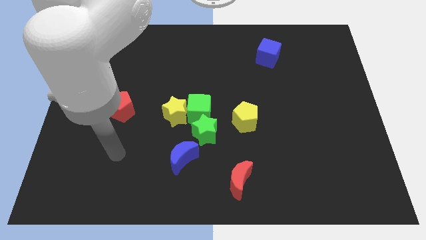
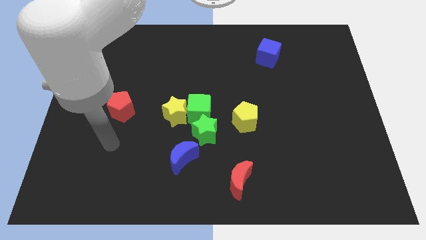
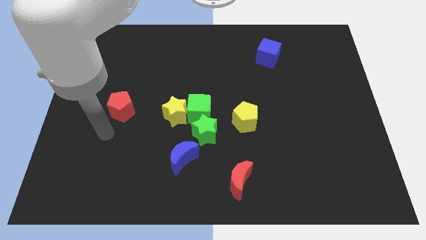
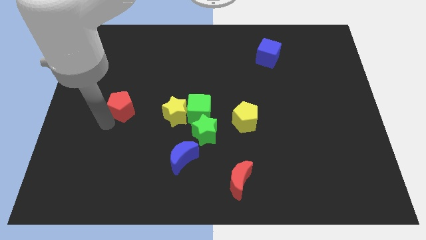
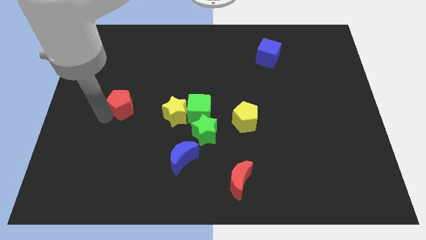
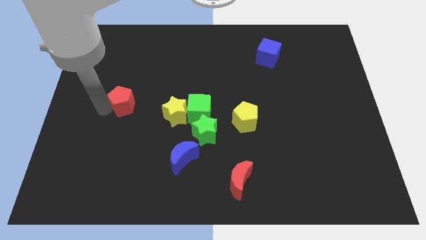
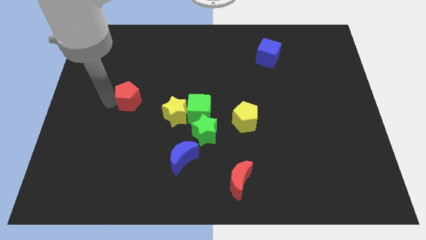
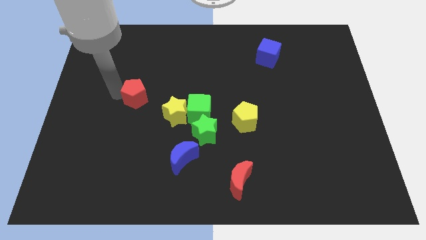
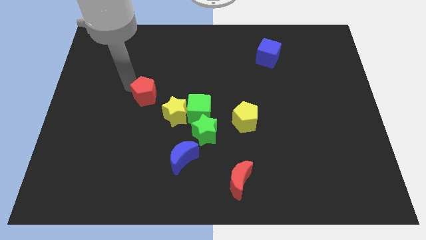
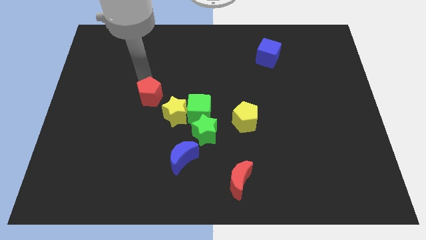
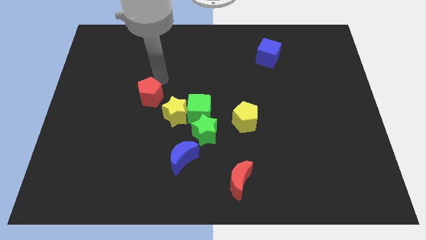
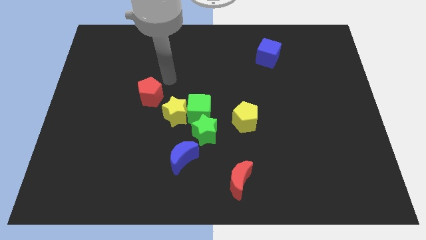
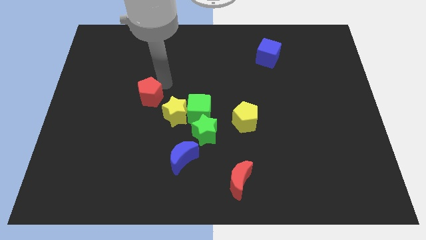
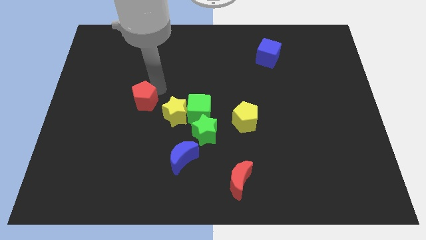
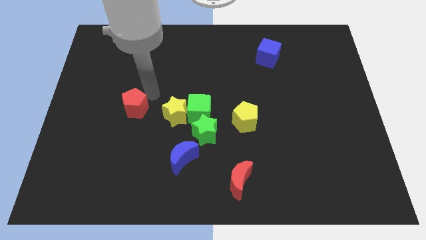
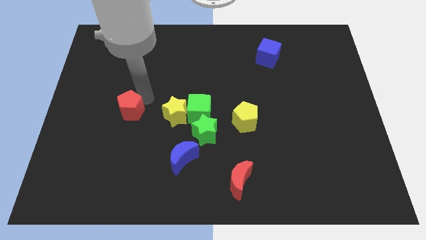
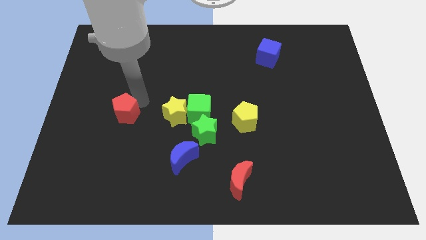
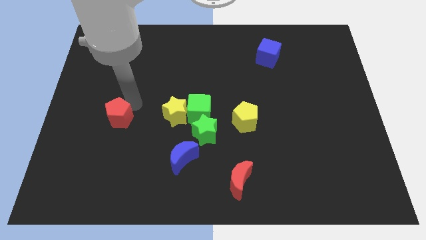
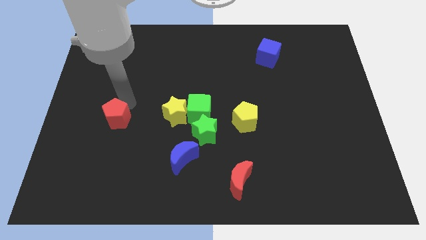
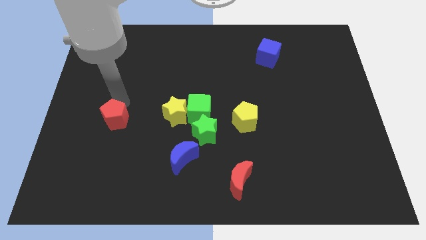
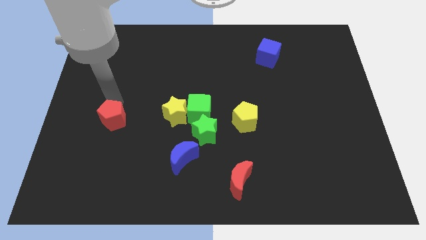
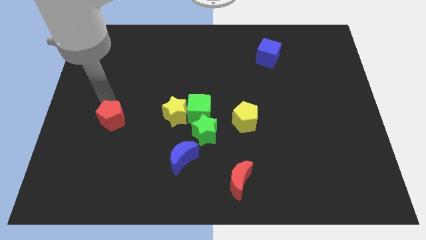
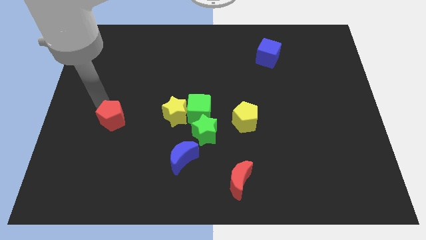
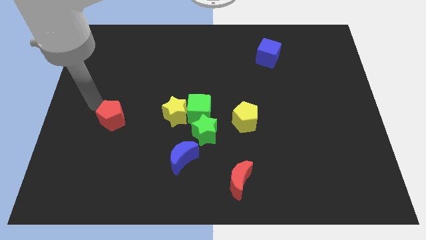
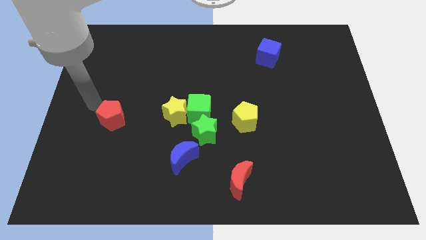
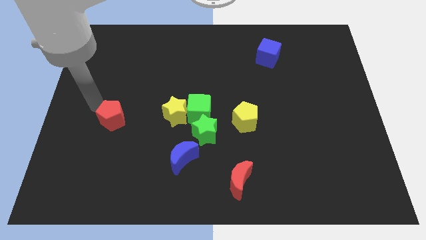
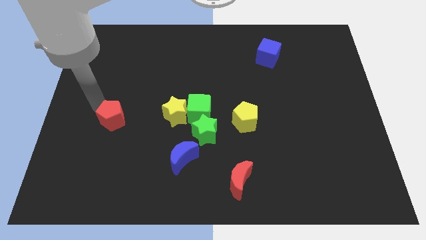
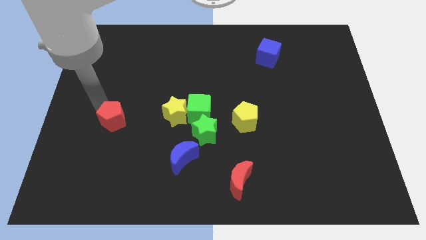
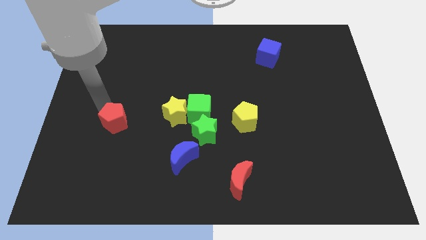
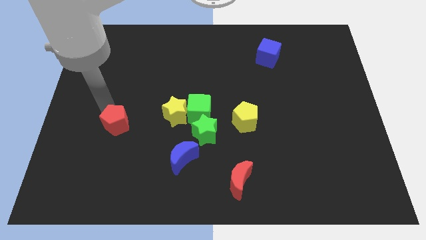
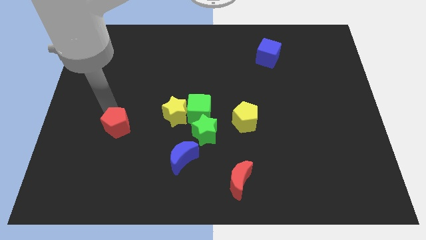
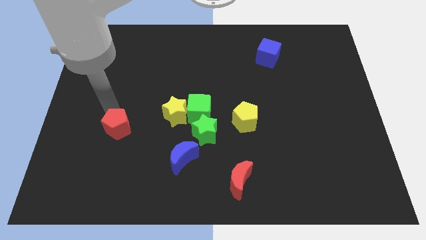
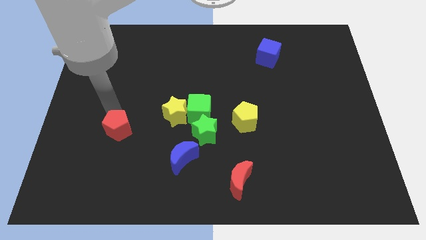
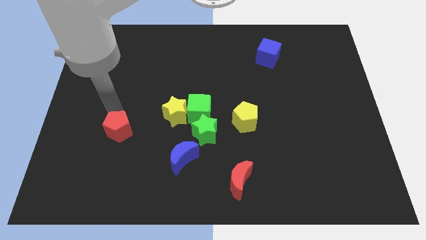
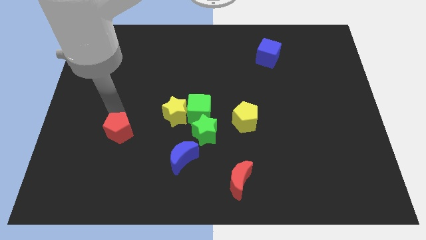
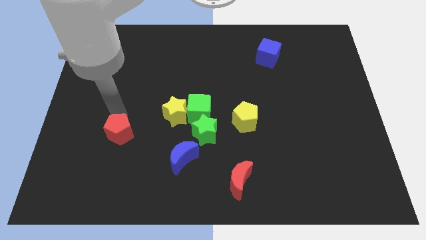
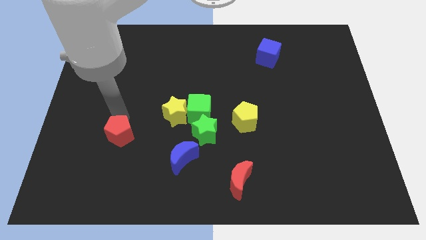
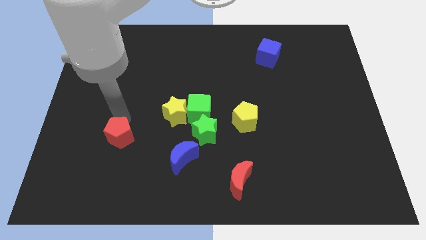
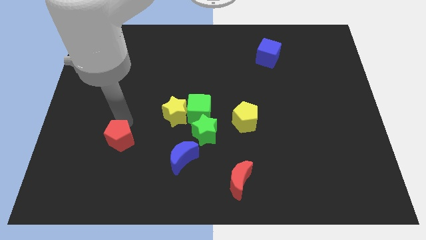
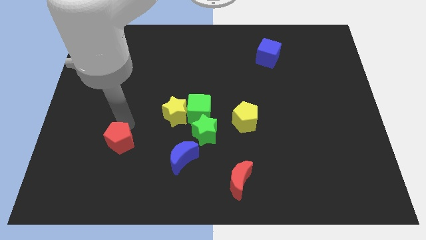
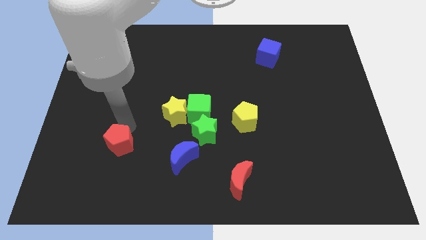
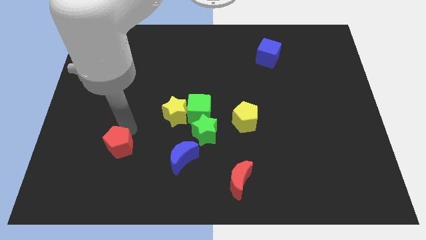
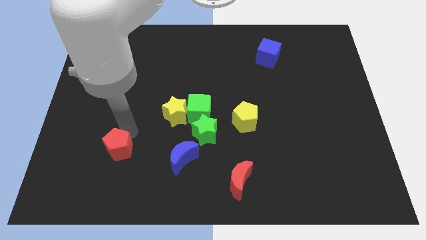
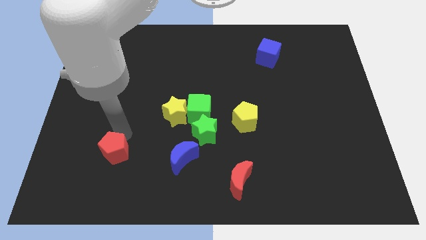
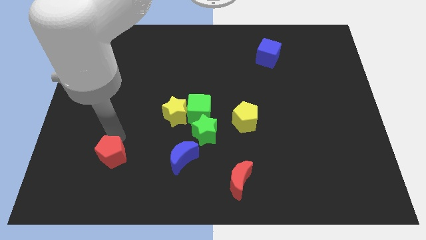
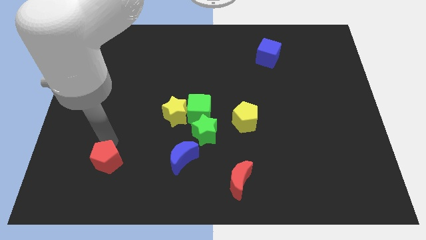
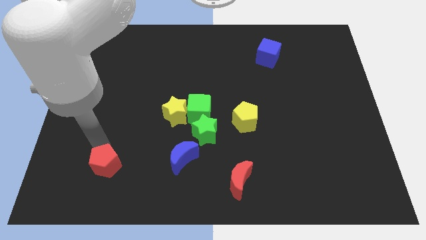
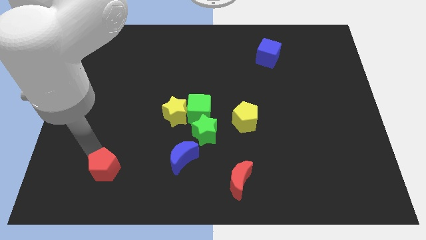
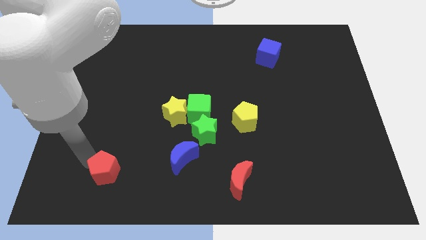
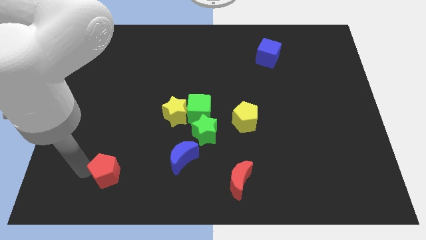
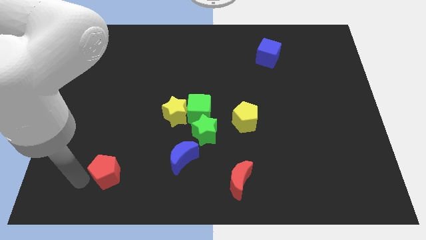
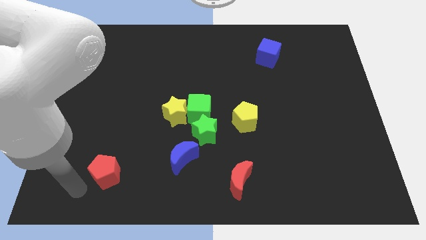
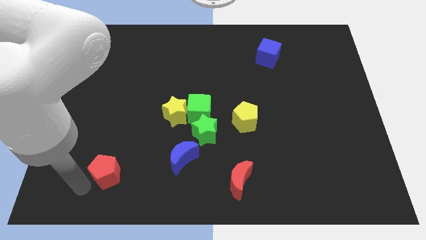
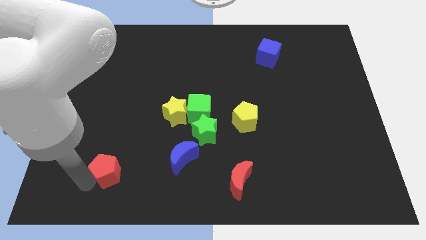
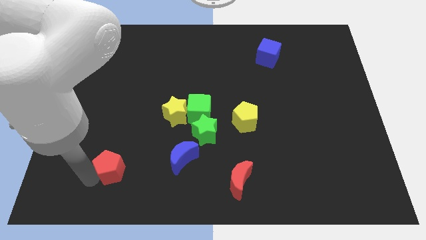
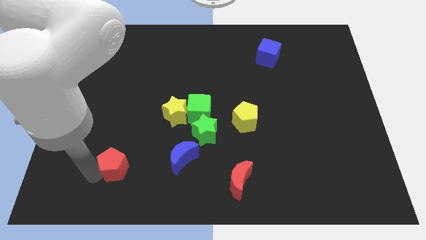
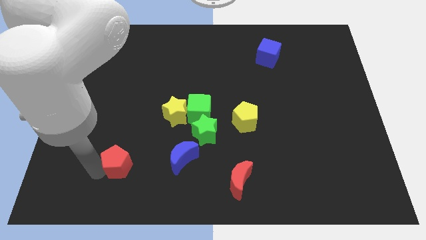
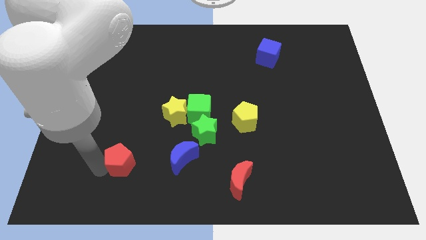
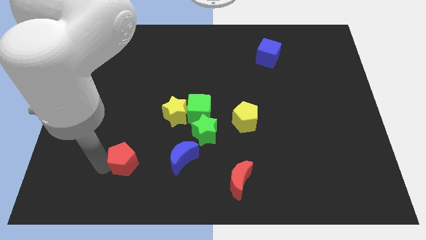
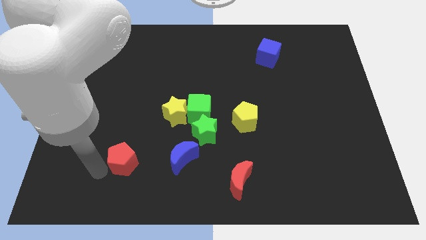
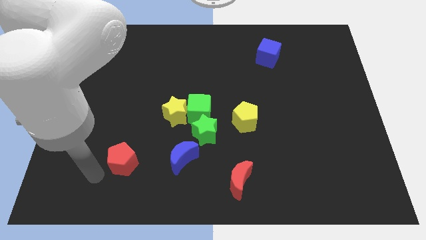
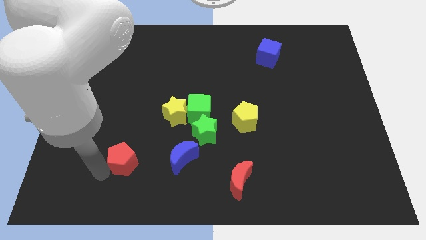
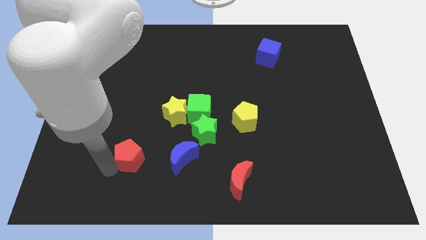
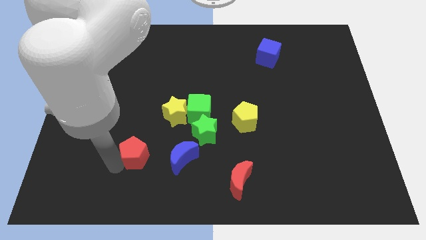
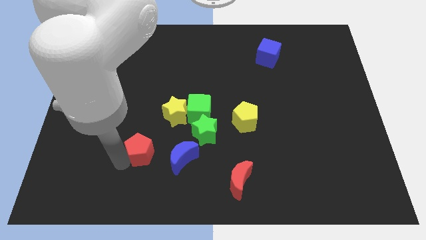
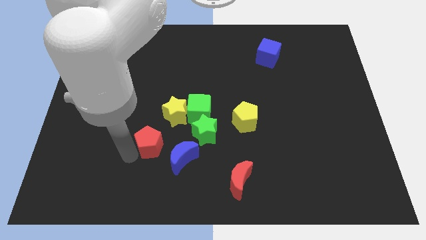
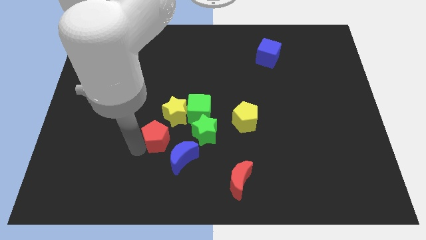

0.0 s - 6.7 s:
put the red pentagon to the bottom side of the yellow star
